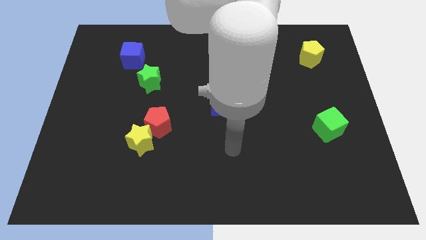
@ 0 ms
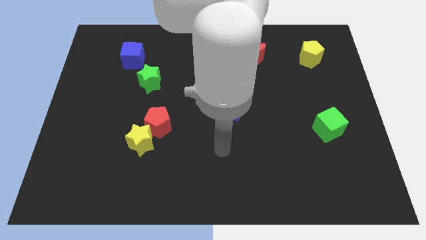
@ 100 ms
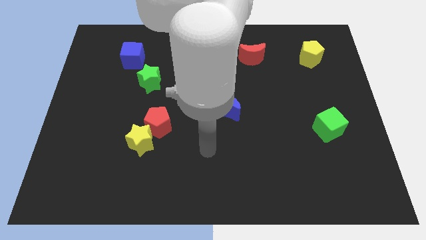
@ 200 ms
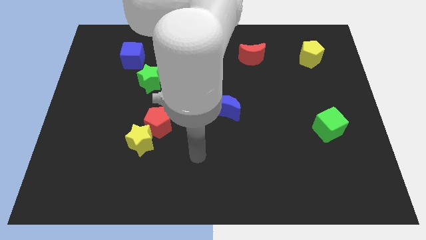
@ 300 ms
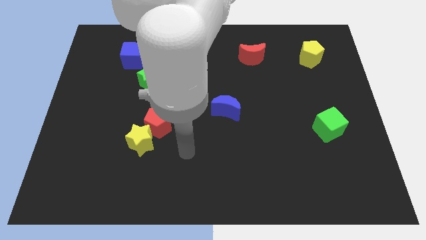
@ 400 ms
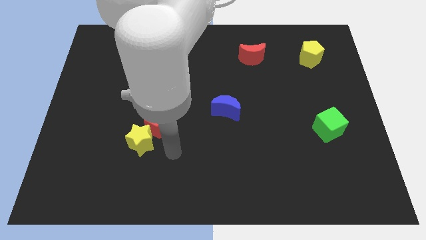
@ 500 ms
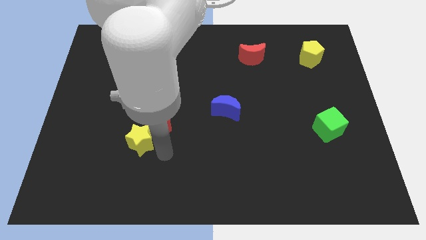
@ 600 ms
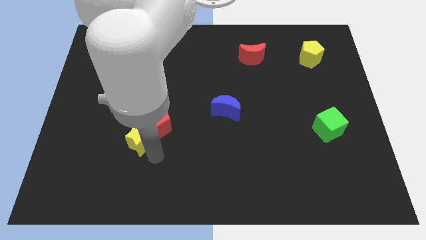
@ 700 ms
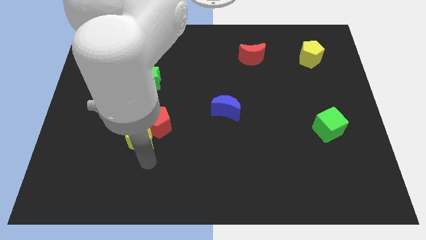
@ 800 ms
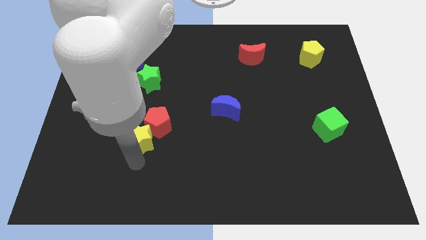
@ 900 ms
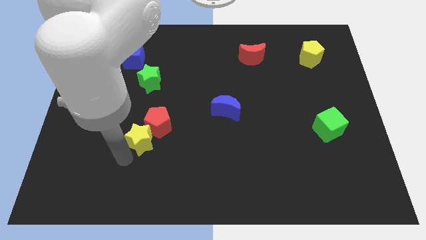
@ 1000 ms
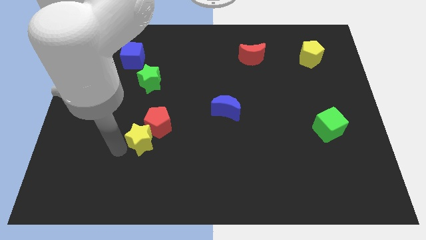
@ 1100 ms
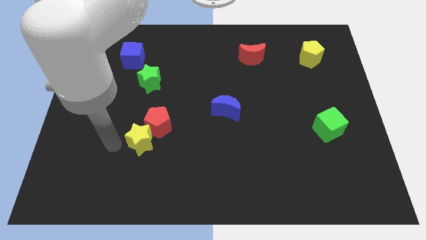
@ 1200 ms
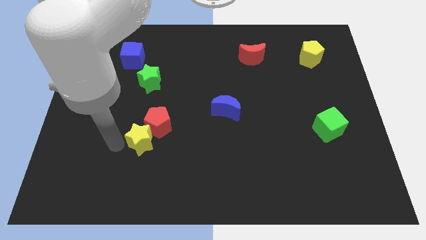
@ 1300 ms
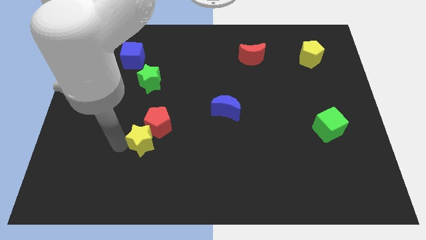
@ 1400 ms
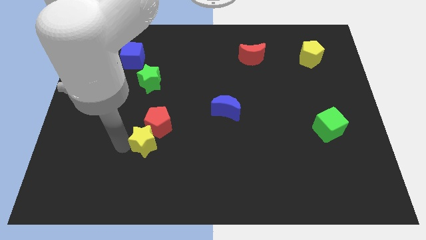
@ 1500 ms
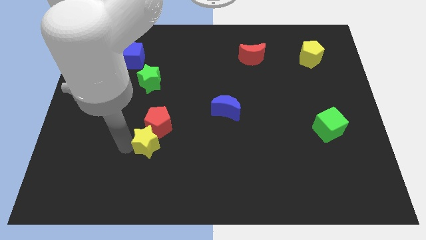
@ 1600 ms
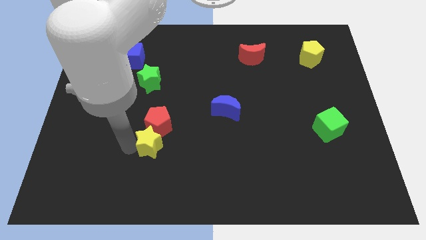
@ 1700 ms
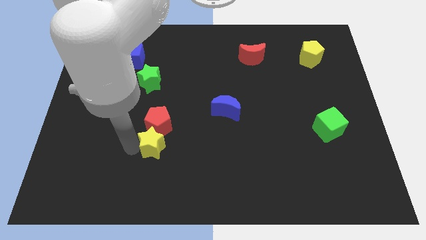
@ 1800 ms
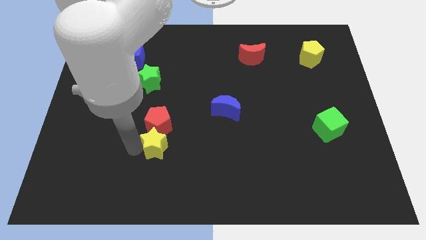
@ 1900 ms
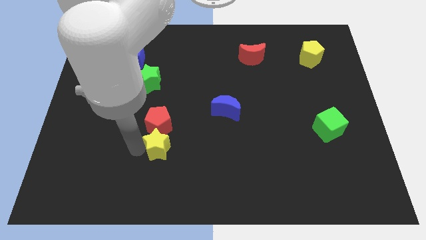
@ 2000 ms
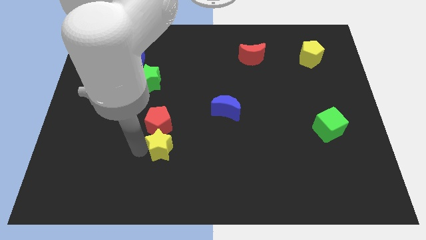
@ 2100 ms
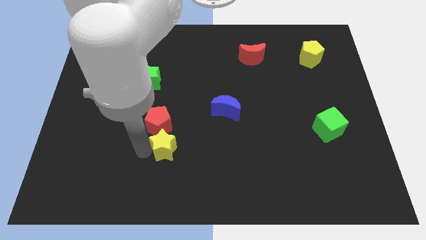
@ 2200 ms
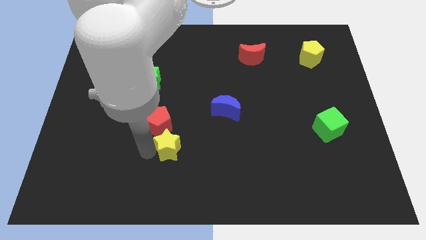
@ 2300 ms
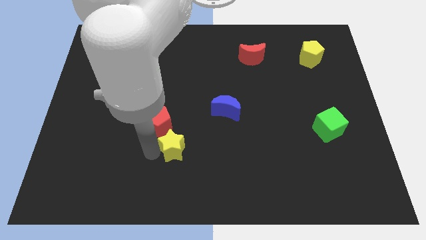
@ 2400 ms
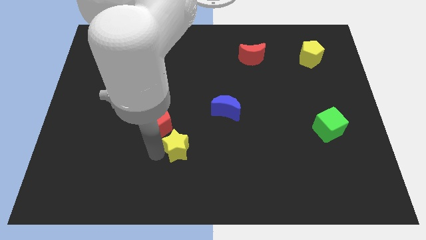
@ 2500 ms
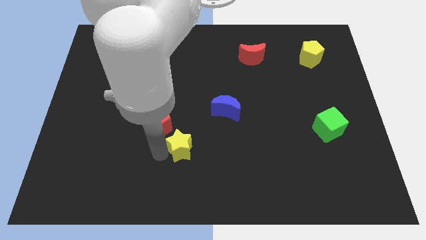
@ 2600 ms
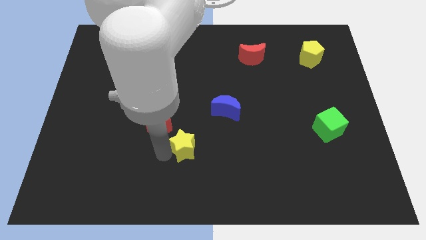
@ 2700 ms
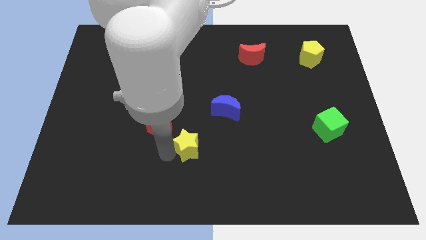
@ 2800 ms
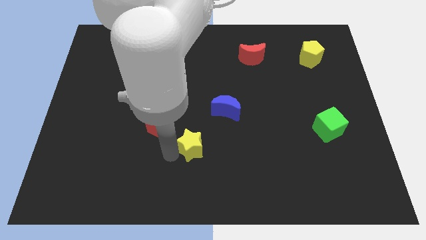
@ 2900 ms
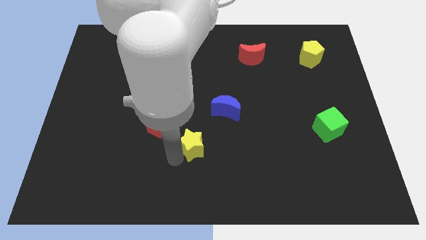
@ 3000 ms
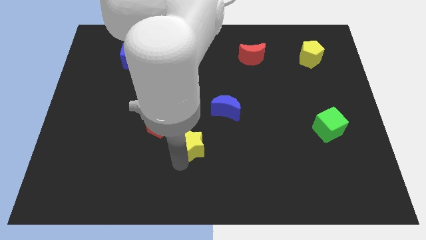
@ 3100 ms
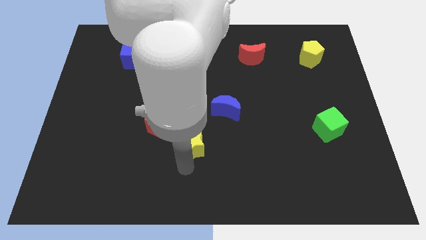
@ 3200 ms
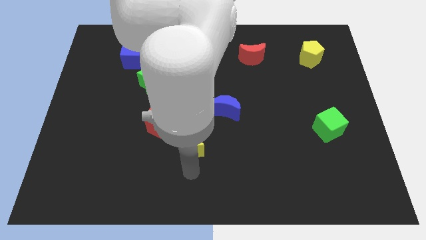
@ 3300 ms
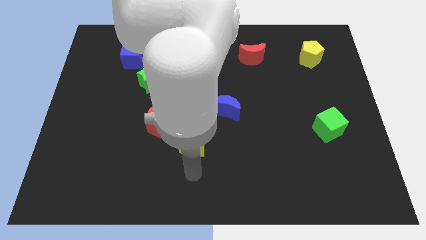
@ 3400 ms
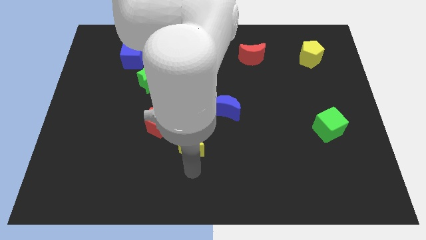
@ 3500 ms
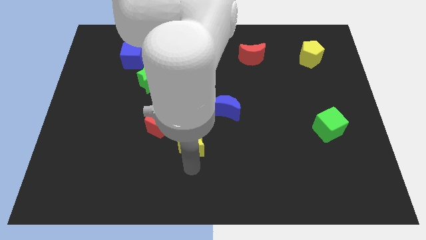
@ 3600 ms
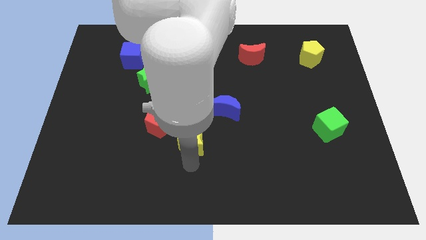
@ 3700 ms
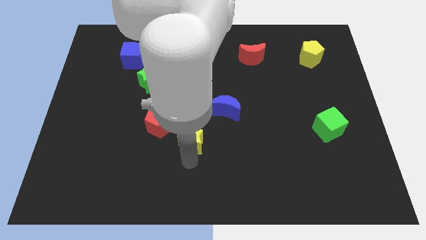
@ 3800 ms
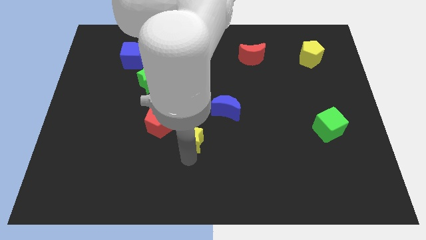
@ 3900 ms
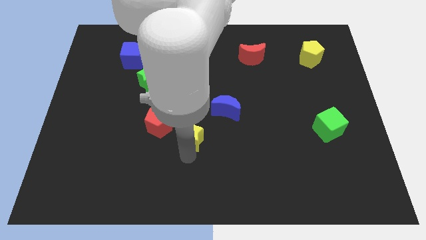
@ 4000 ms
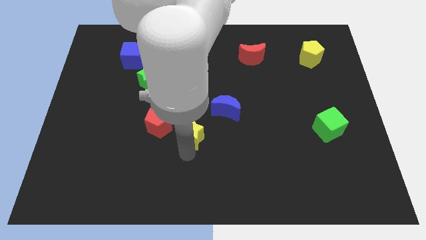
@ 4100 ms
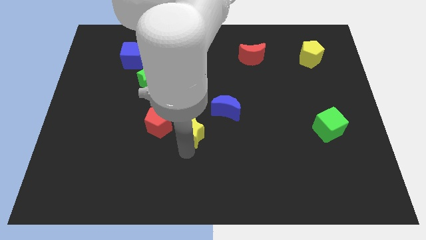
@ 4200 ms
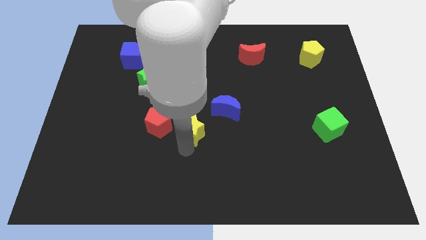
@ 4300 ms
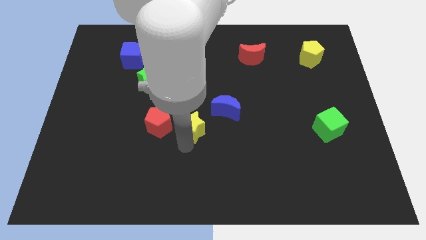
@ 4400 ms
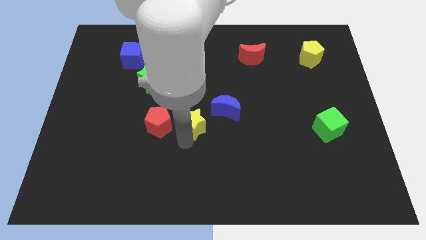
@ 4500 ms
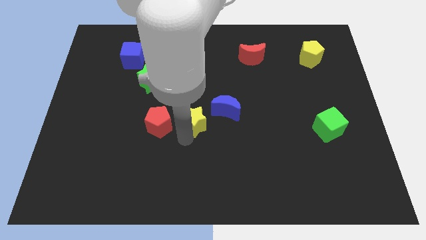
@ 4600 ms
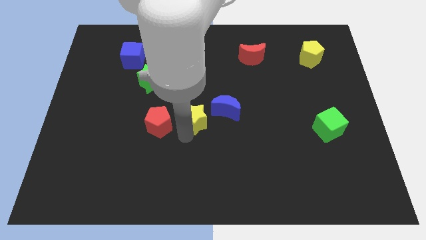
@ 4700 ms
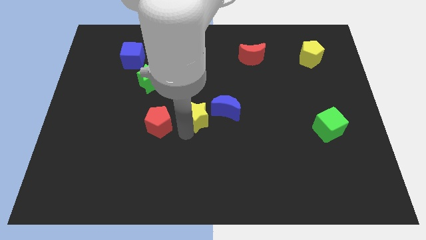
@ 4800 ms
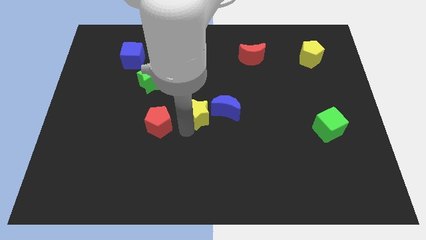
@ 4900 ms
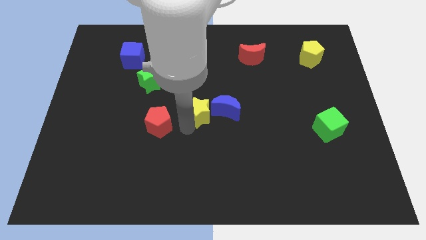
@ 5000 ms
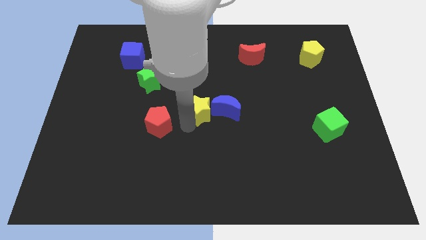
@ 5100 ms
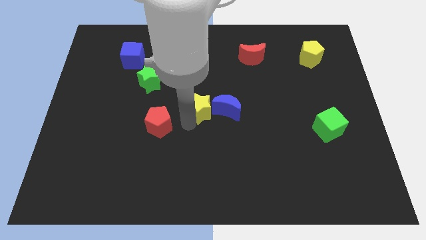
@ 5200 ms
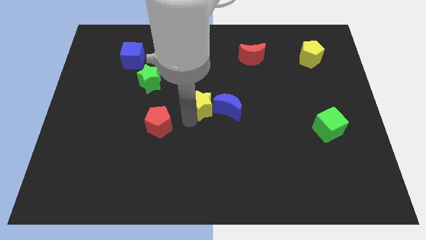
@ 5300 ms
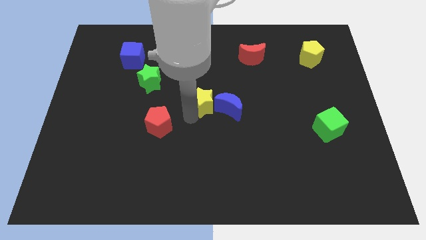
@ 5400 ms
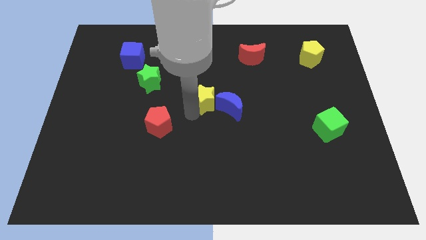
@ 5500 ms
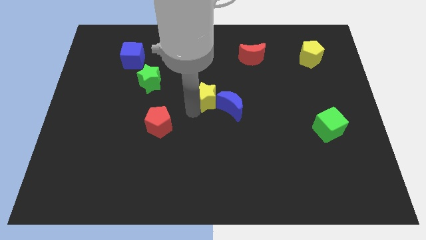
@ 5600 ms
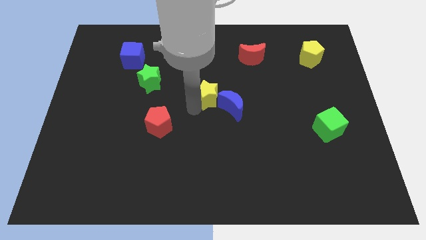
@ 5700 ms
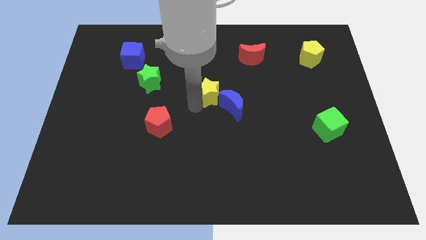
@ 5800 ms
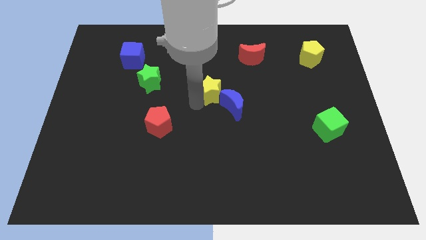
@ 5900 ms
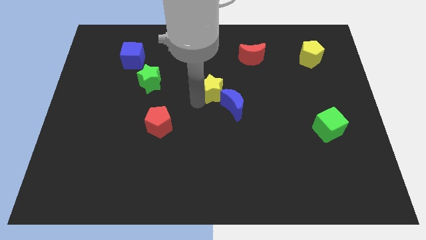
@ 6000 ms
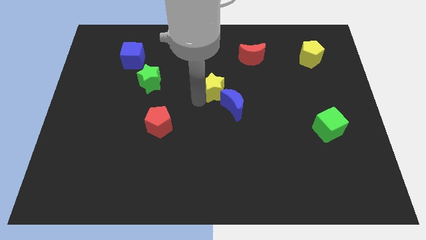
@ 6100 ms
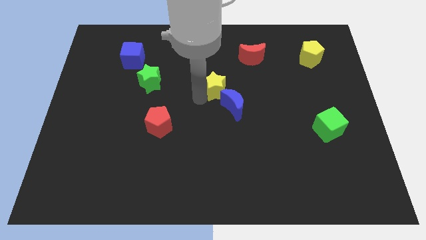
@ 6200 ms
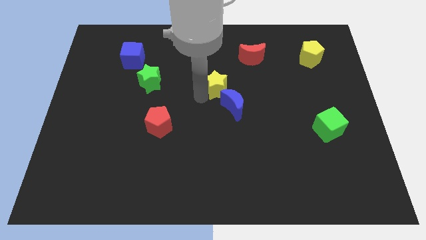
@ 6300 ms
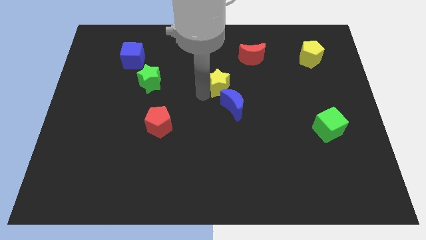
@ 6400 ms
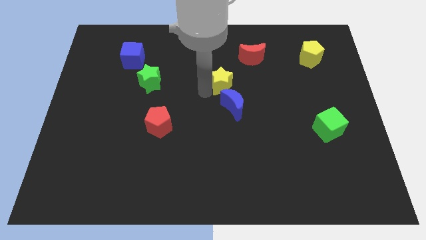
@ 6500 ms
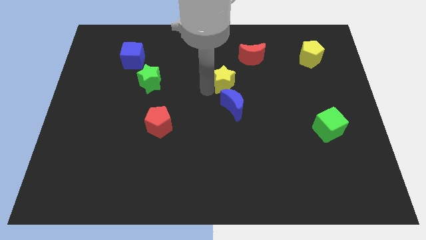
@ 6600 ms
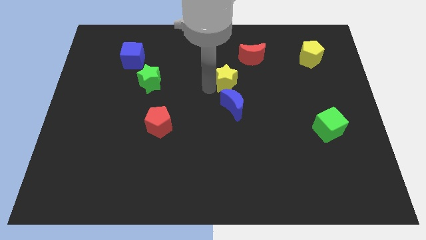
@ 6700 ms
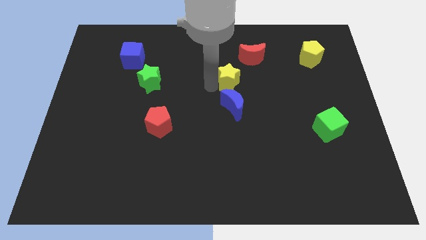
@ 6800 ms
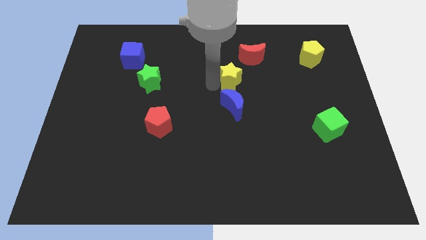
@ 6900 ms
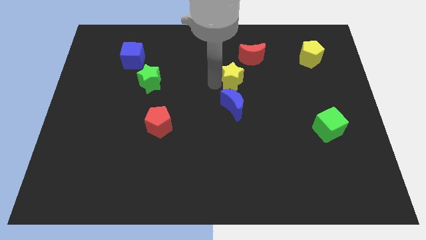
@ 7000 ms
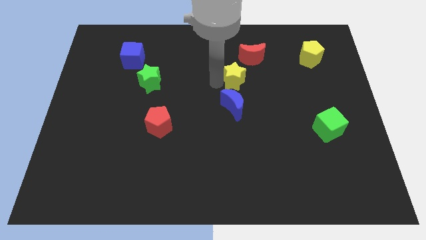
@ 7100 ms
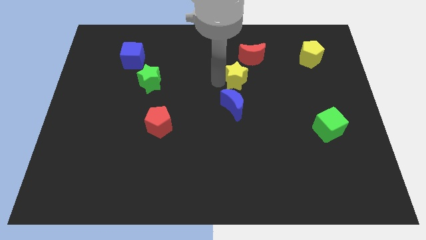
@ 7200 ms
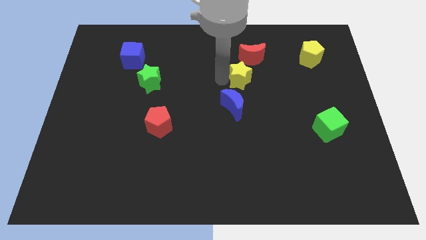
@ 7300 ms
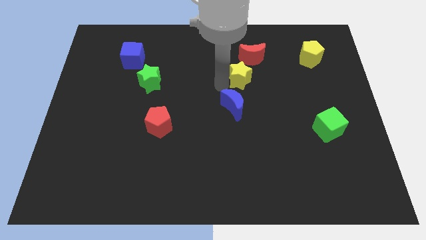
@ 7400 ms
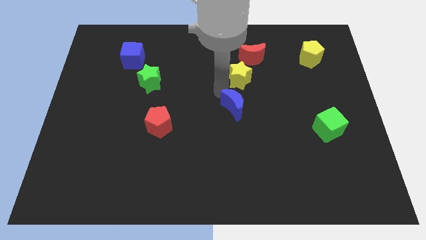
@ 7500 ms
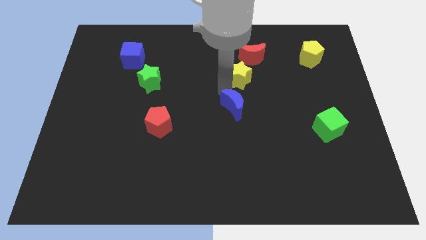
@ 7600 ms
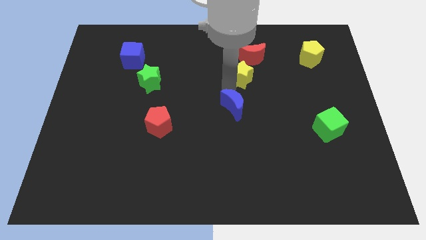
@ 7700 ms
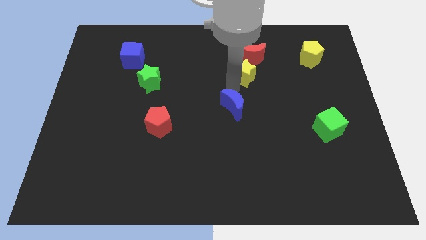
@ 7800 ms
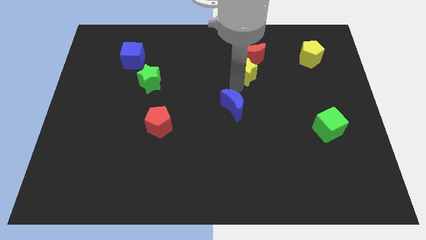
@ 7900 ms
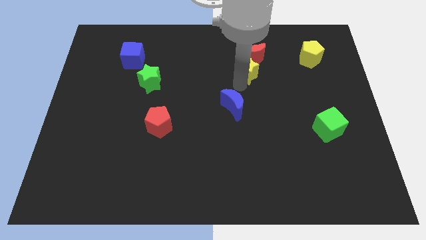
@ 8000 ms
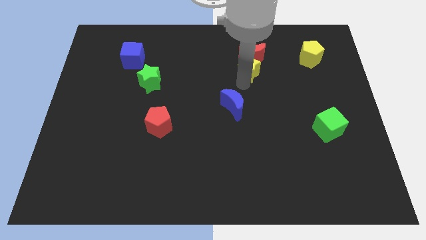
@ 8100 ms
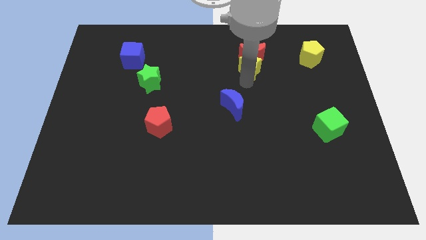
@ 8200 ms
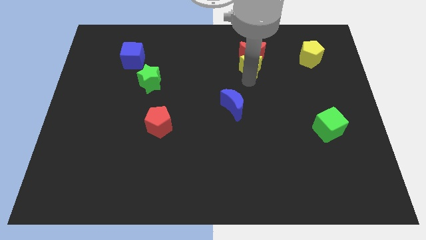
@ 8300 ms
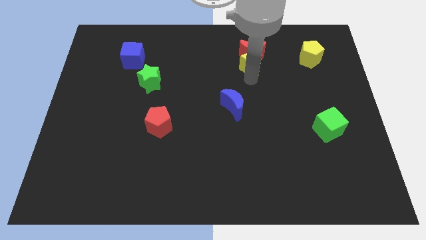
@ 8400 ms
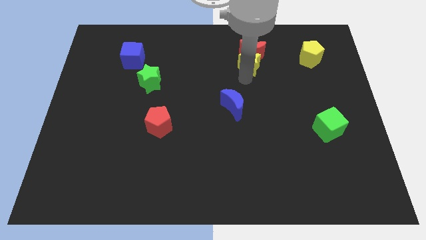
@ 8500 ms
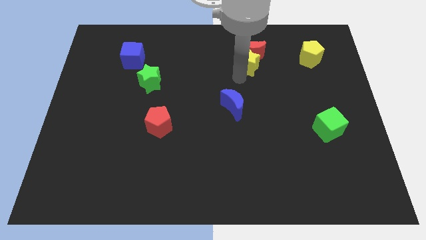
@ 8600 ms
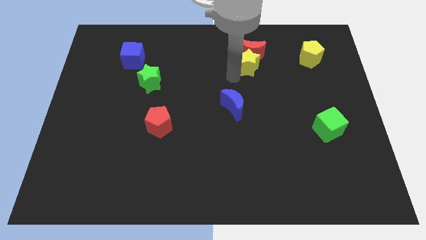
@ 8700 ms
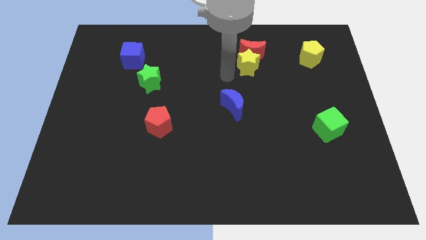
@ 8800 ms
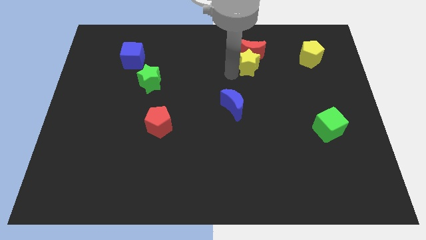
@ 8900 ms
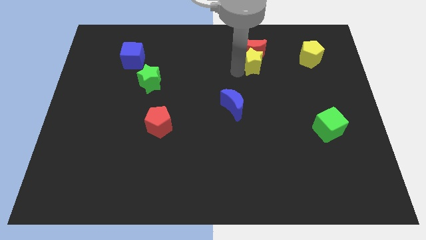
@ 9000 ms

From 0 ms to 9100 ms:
put the yellow star to the left side of the yellow pentagon
